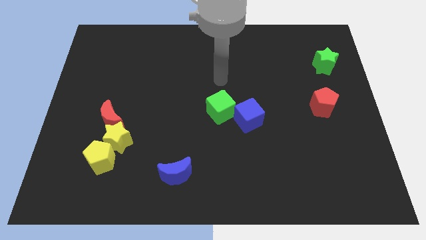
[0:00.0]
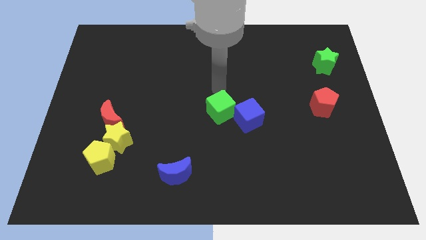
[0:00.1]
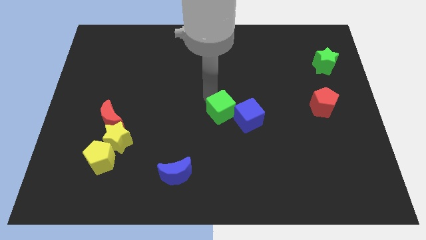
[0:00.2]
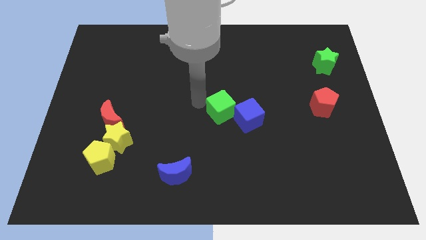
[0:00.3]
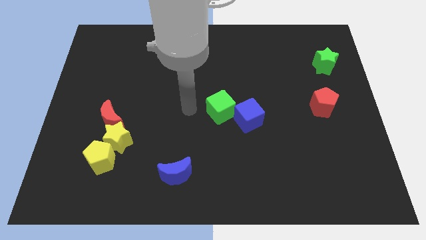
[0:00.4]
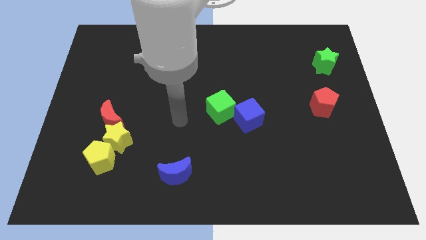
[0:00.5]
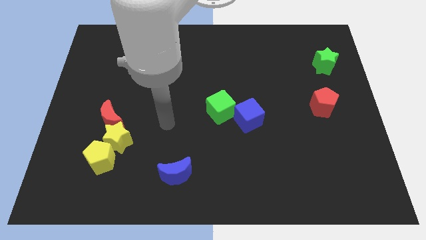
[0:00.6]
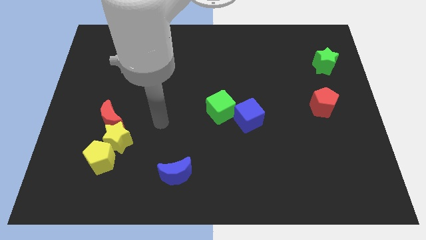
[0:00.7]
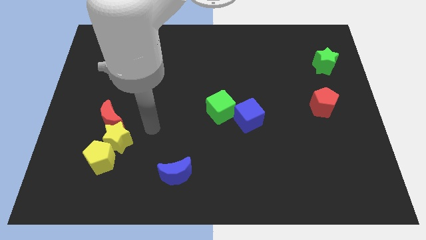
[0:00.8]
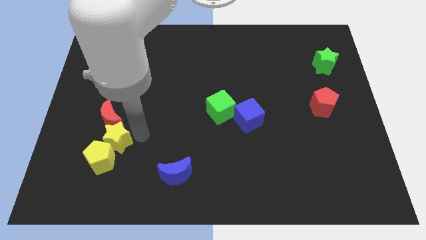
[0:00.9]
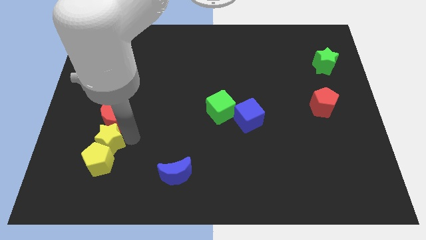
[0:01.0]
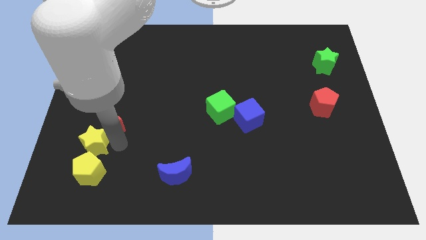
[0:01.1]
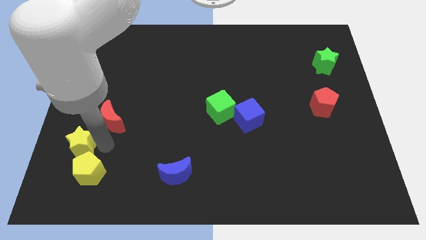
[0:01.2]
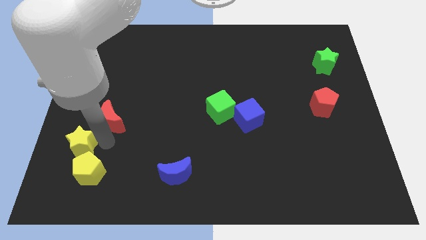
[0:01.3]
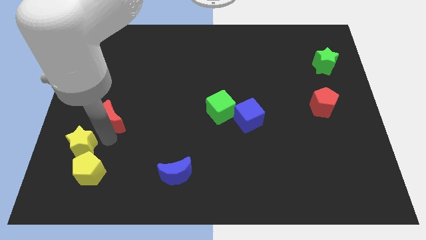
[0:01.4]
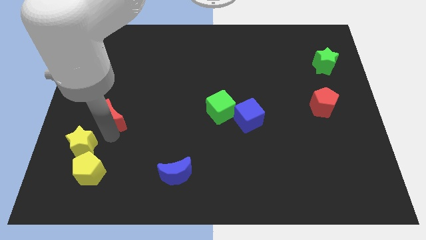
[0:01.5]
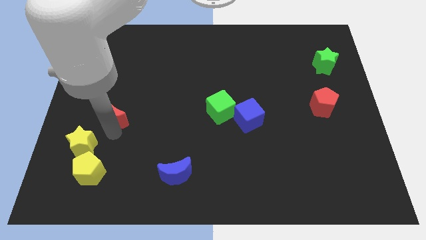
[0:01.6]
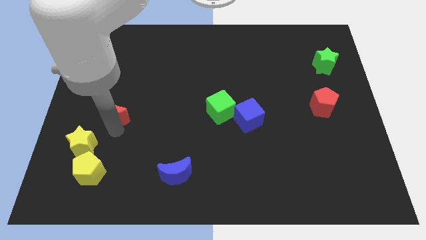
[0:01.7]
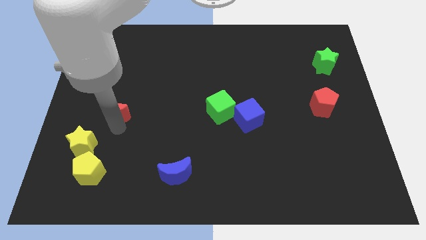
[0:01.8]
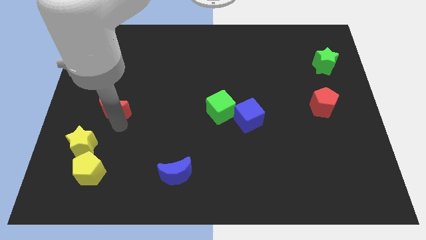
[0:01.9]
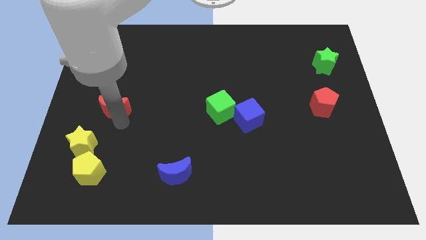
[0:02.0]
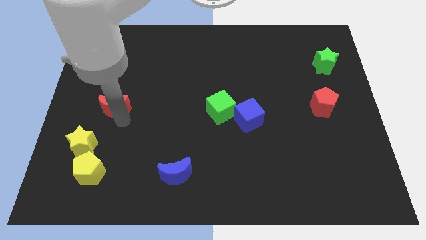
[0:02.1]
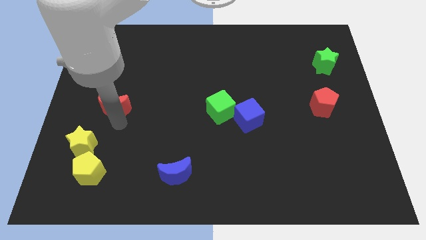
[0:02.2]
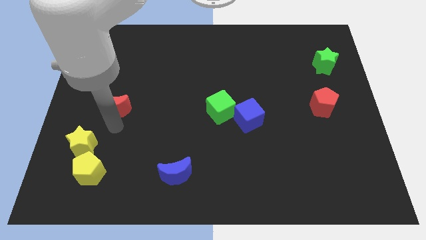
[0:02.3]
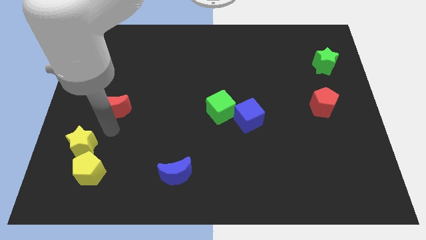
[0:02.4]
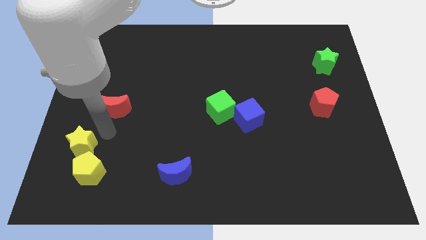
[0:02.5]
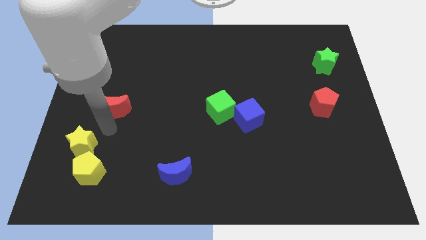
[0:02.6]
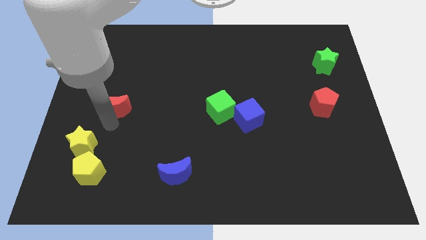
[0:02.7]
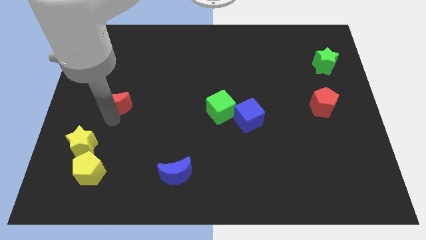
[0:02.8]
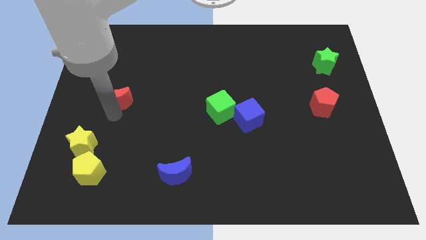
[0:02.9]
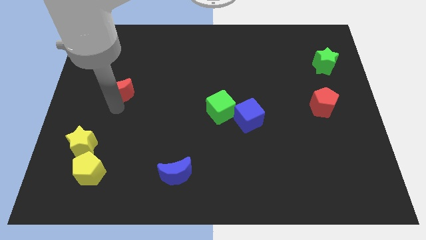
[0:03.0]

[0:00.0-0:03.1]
slightly push the red moon upwards

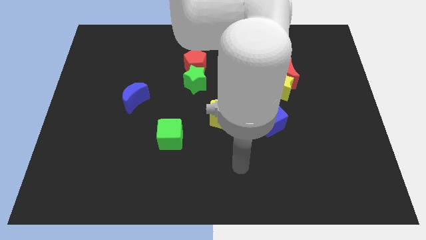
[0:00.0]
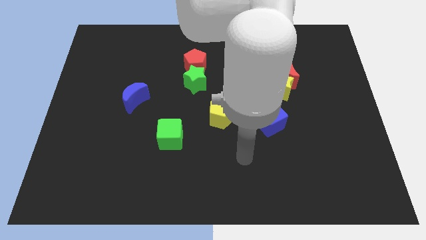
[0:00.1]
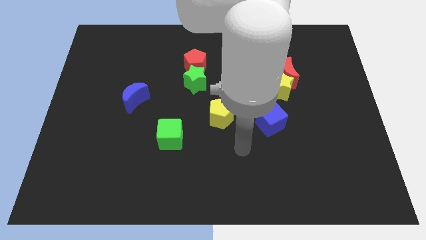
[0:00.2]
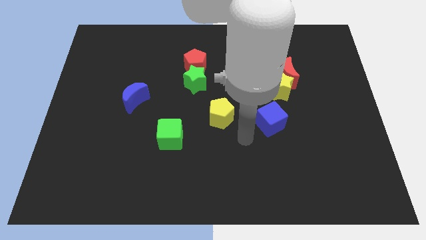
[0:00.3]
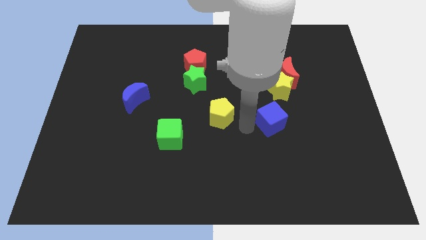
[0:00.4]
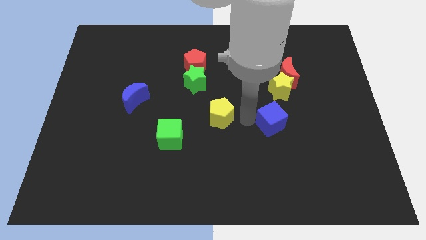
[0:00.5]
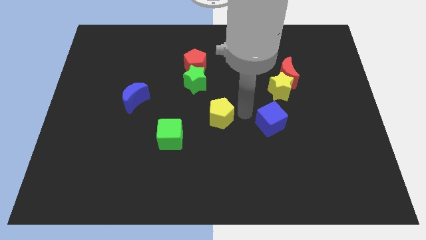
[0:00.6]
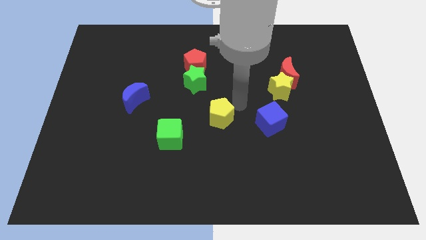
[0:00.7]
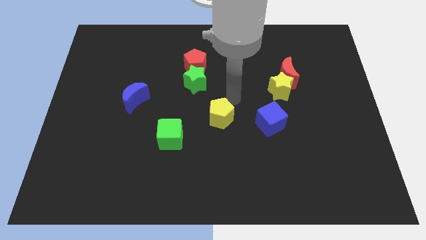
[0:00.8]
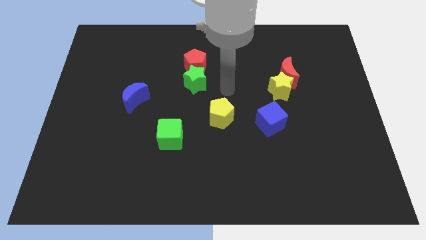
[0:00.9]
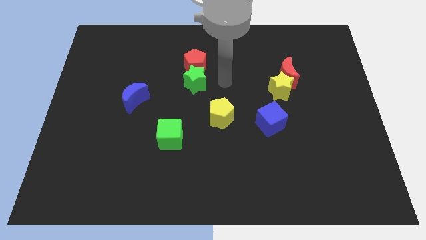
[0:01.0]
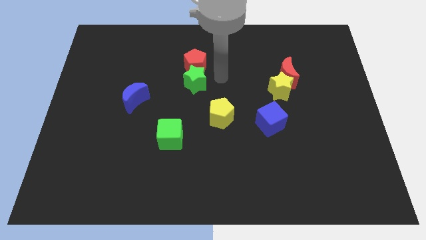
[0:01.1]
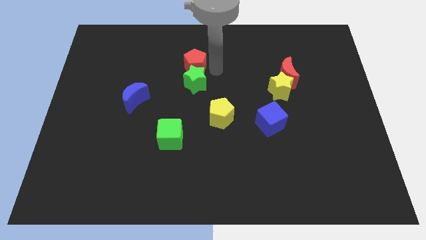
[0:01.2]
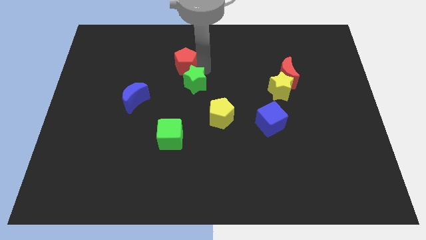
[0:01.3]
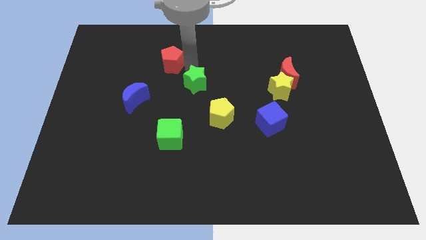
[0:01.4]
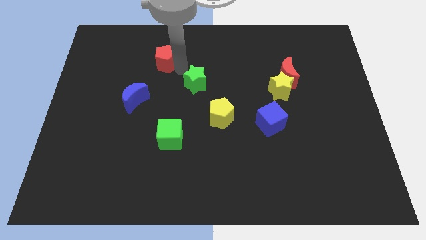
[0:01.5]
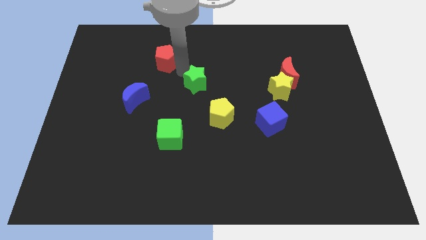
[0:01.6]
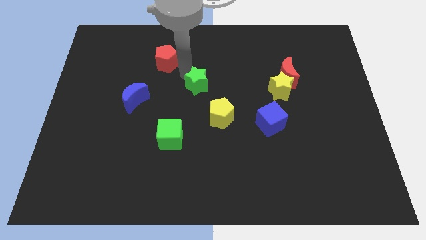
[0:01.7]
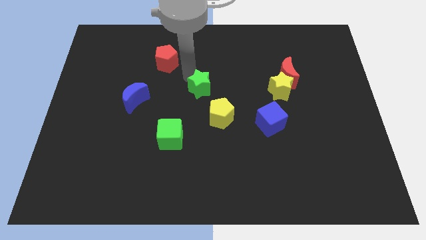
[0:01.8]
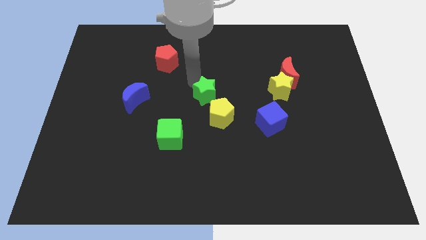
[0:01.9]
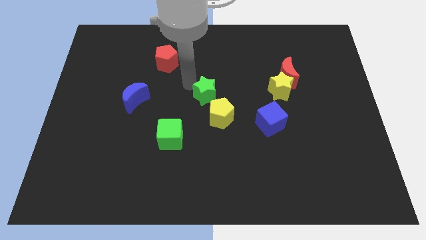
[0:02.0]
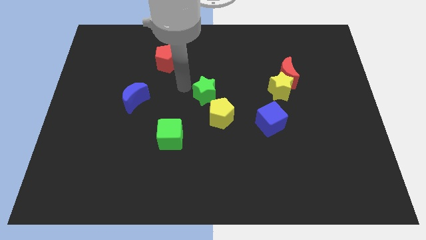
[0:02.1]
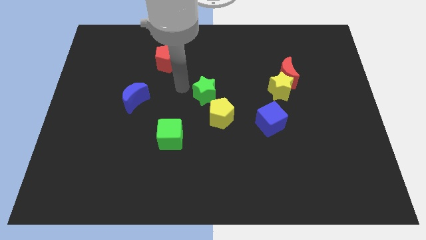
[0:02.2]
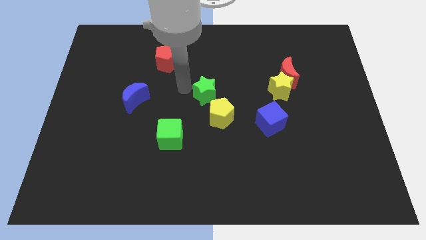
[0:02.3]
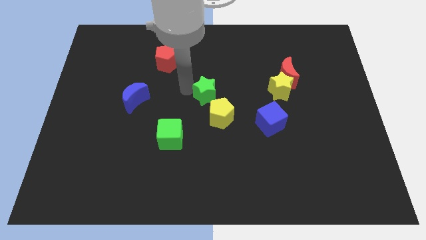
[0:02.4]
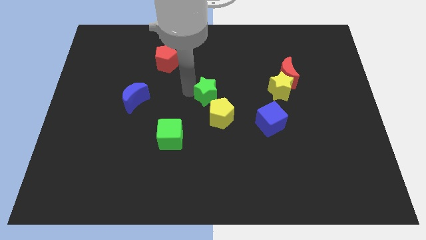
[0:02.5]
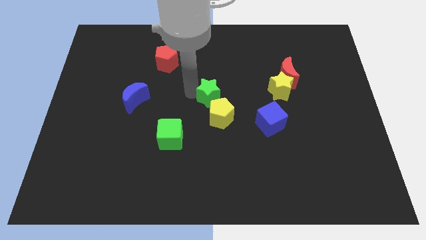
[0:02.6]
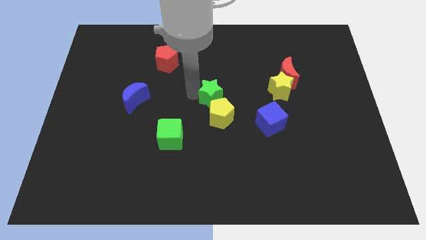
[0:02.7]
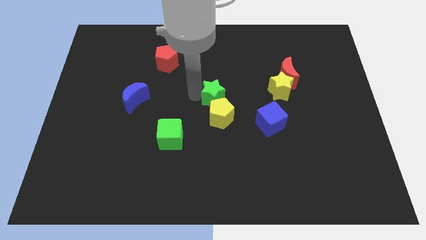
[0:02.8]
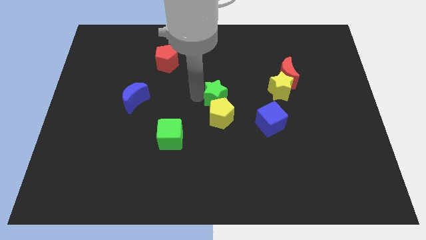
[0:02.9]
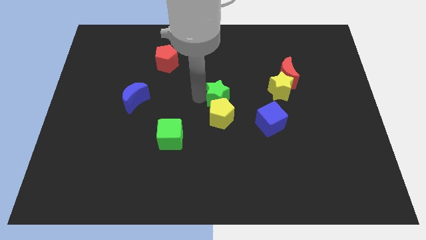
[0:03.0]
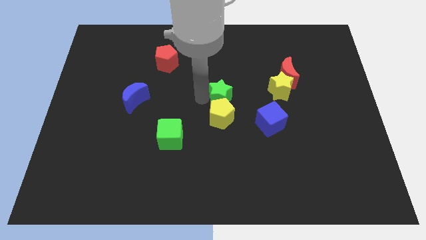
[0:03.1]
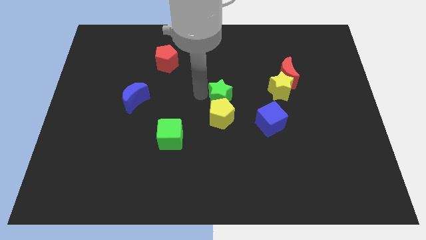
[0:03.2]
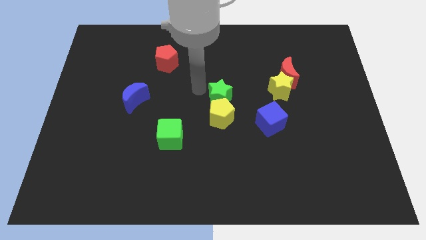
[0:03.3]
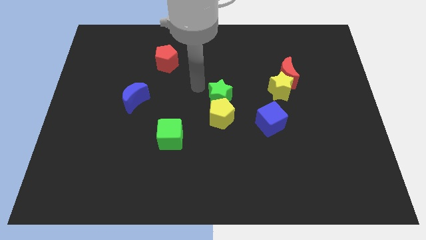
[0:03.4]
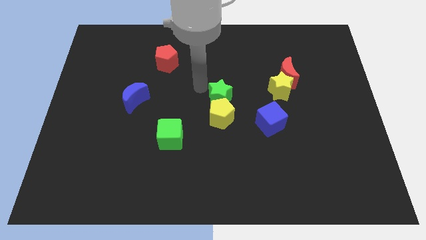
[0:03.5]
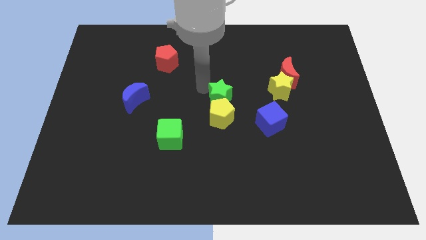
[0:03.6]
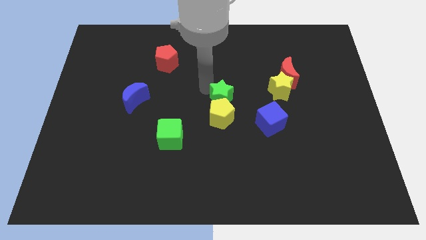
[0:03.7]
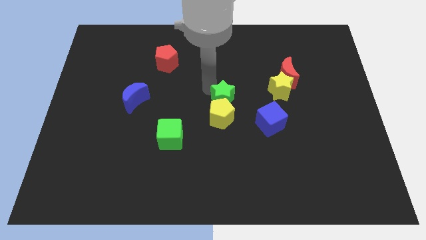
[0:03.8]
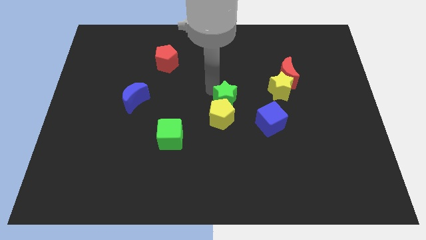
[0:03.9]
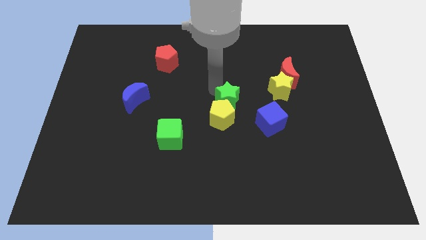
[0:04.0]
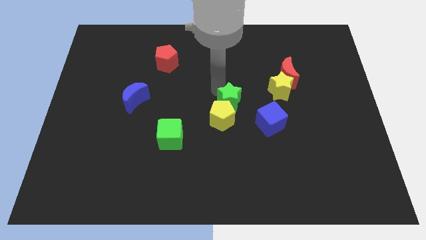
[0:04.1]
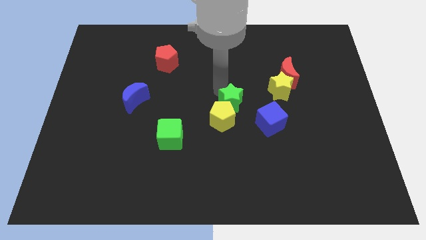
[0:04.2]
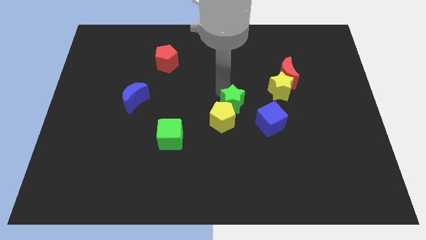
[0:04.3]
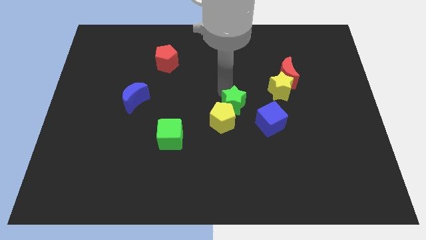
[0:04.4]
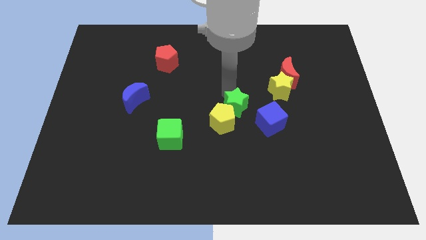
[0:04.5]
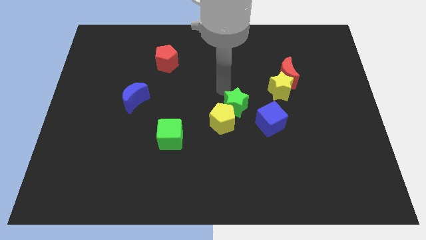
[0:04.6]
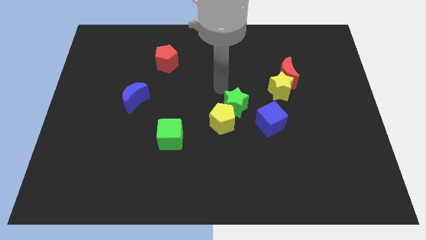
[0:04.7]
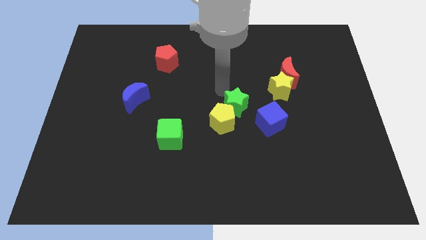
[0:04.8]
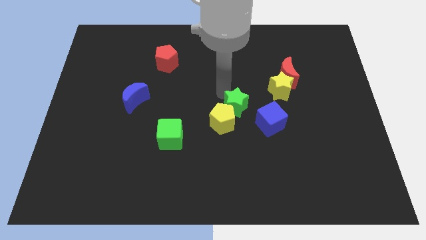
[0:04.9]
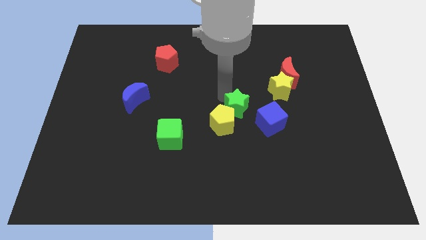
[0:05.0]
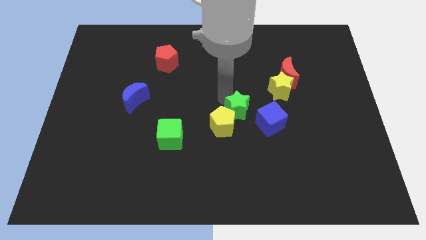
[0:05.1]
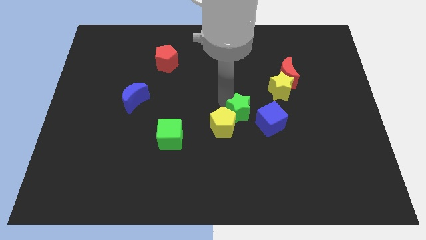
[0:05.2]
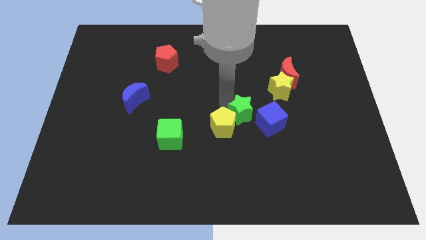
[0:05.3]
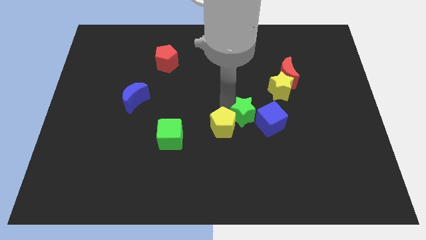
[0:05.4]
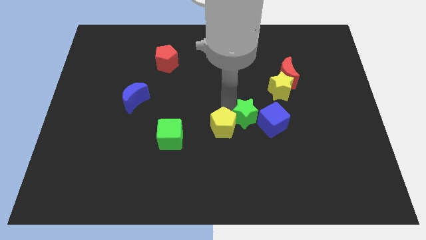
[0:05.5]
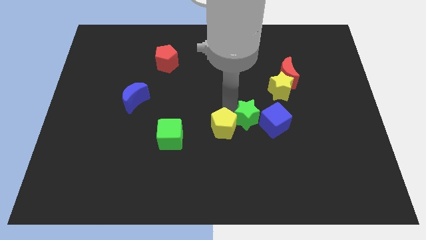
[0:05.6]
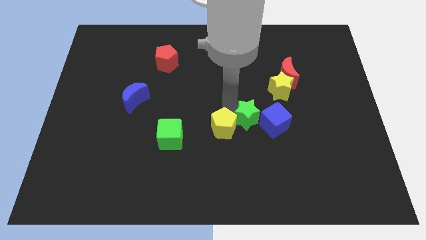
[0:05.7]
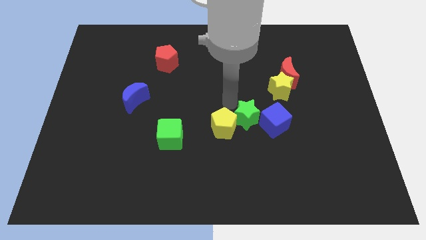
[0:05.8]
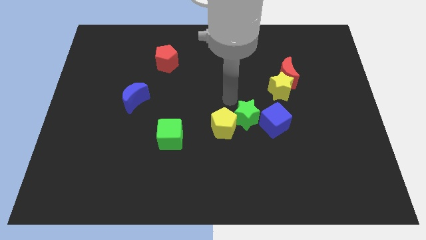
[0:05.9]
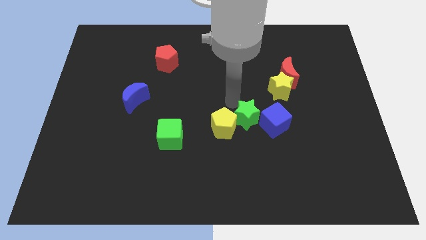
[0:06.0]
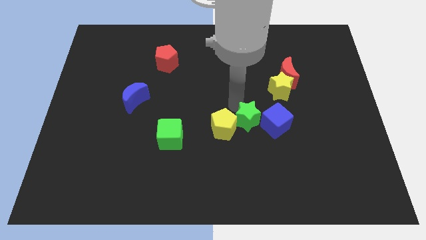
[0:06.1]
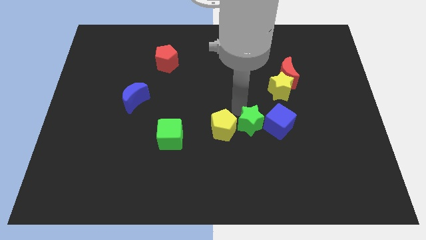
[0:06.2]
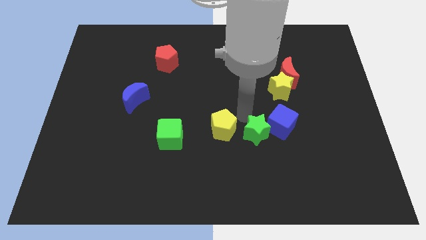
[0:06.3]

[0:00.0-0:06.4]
move the green star down and to the right
